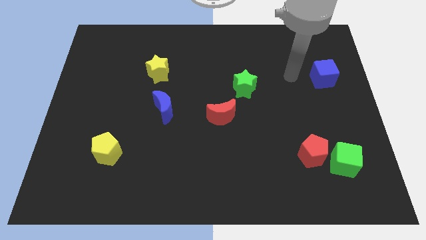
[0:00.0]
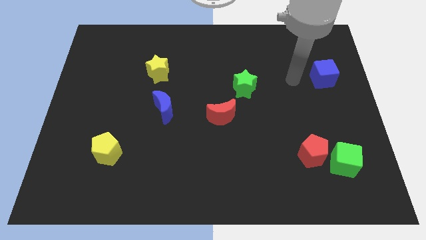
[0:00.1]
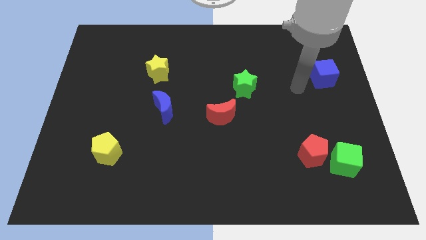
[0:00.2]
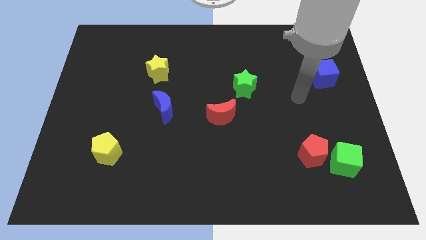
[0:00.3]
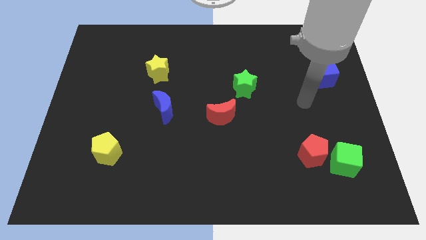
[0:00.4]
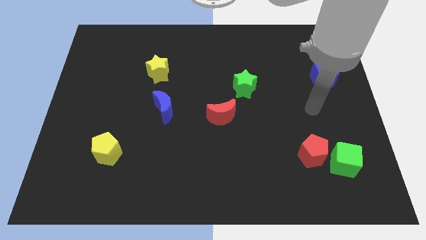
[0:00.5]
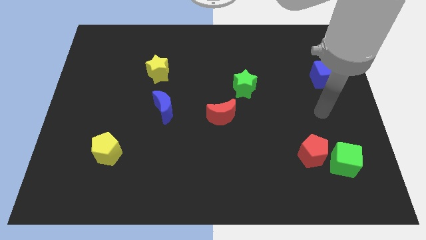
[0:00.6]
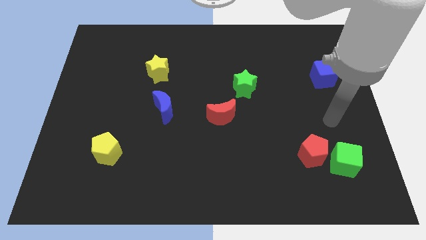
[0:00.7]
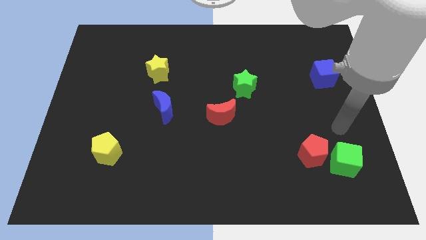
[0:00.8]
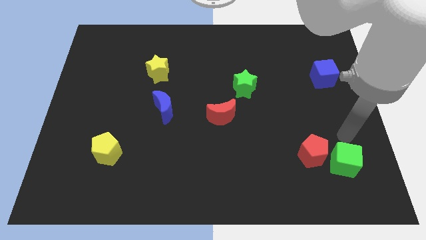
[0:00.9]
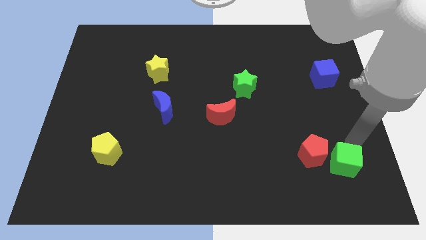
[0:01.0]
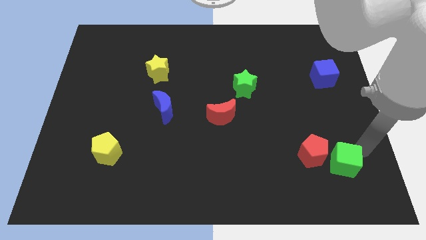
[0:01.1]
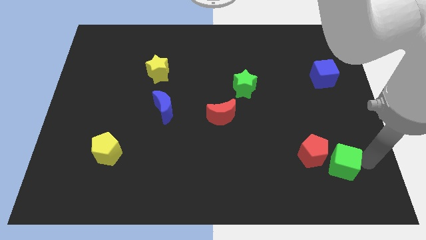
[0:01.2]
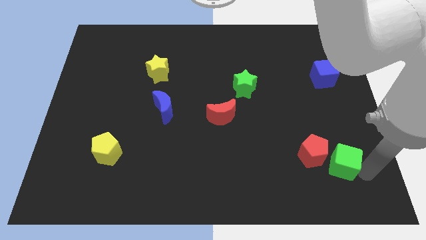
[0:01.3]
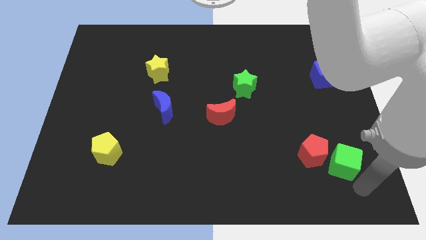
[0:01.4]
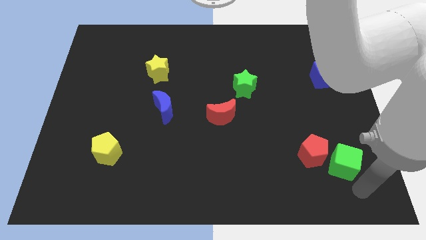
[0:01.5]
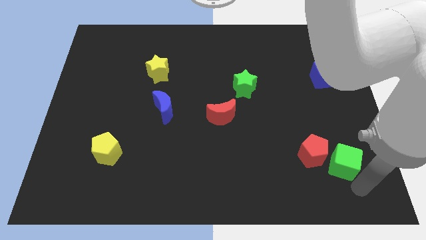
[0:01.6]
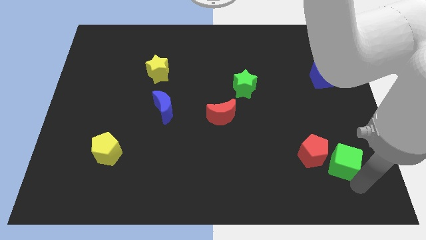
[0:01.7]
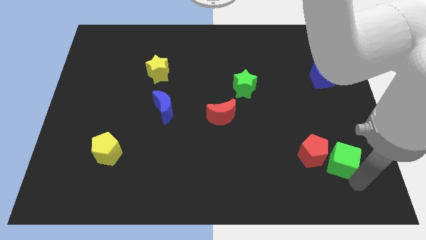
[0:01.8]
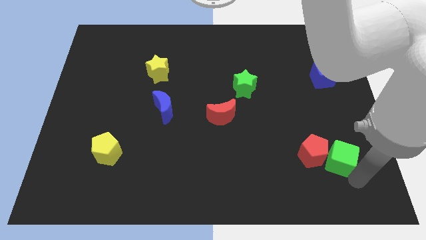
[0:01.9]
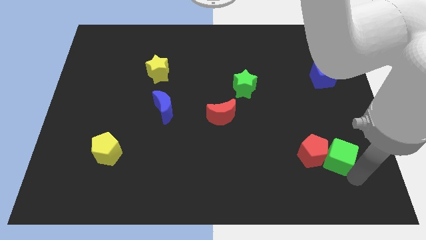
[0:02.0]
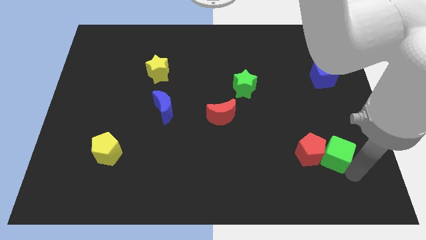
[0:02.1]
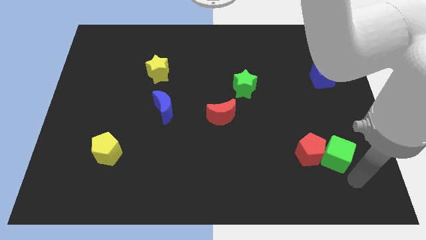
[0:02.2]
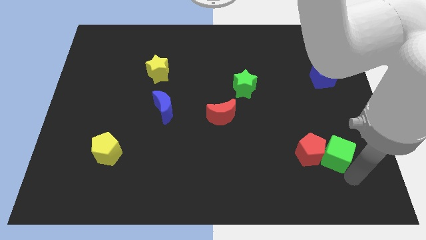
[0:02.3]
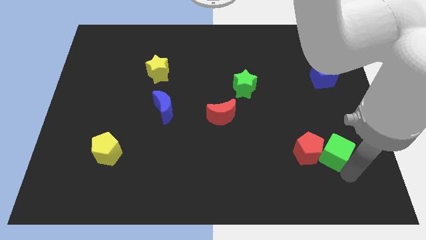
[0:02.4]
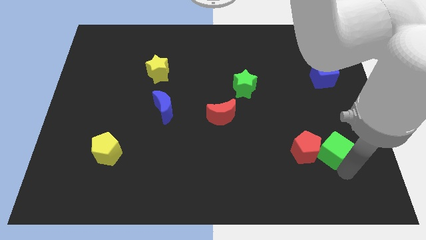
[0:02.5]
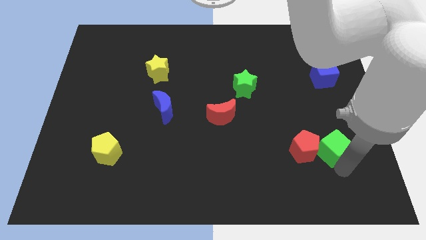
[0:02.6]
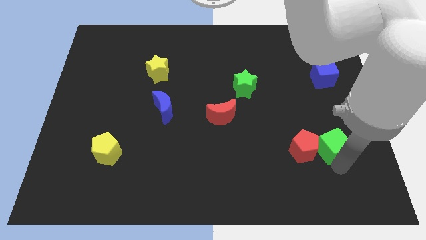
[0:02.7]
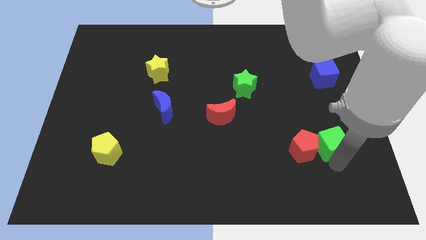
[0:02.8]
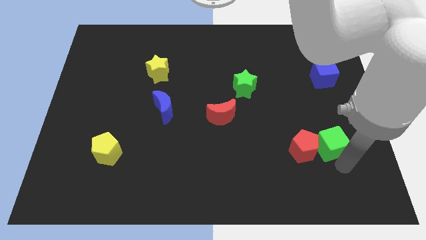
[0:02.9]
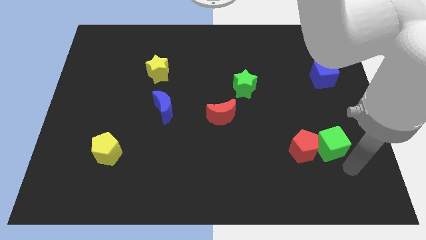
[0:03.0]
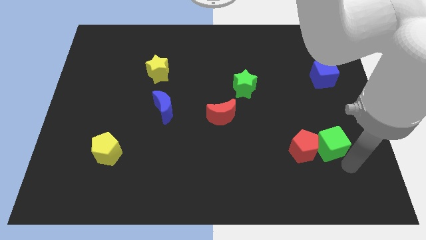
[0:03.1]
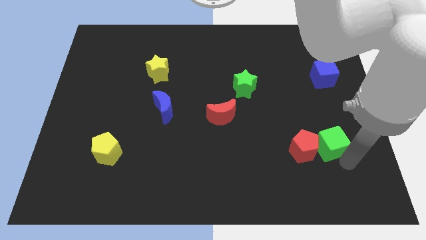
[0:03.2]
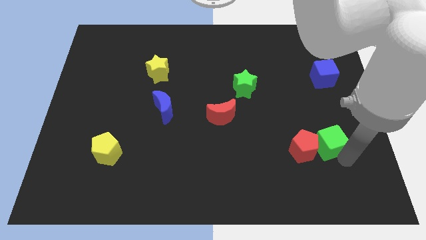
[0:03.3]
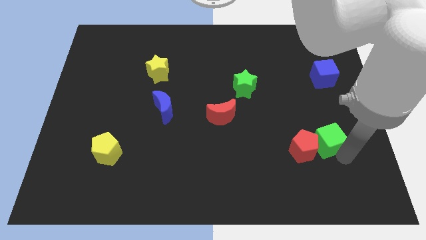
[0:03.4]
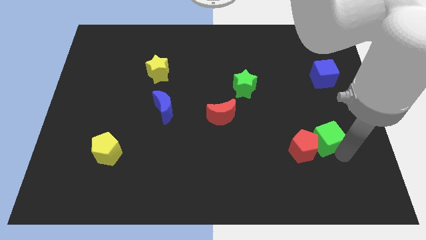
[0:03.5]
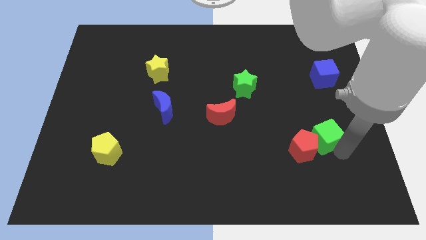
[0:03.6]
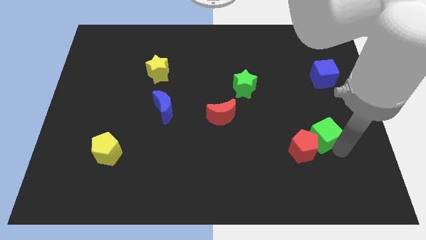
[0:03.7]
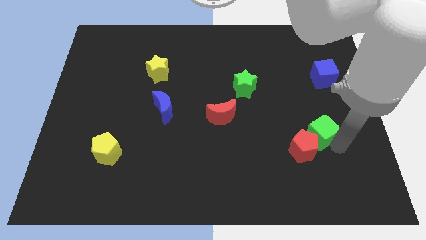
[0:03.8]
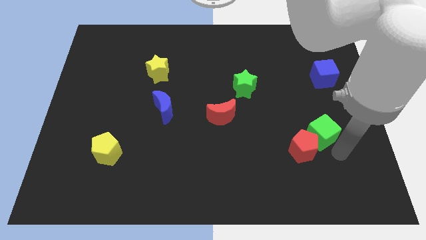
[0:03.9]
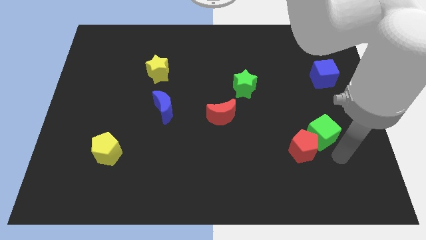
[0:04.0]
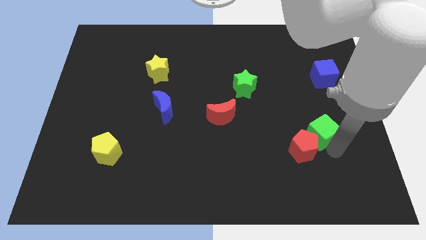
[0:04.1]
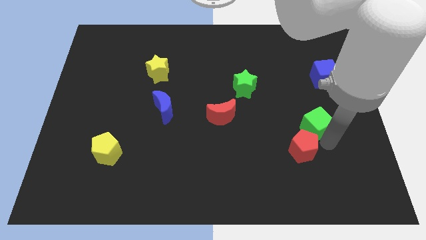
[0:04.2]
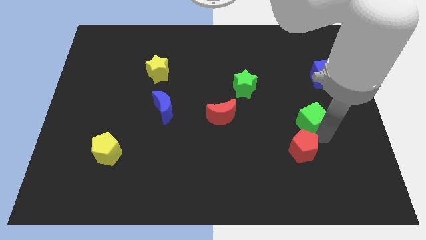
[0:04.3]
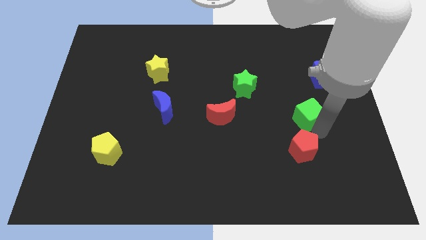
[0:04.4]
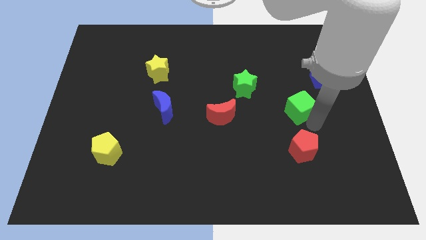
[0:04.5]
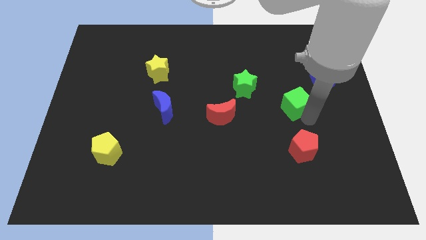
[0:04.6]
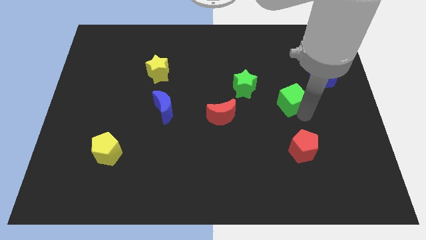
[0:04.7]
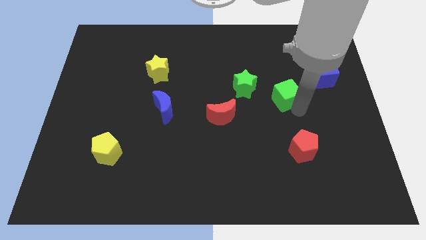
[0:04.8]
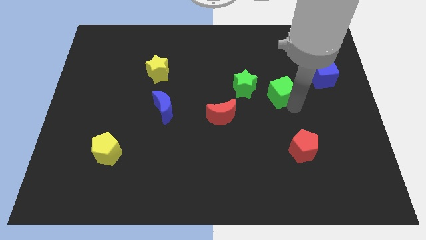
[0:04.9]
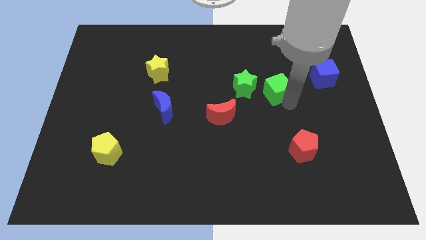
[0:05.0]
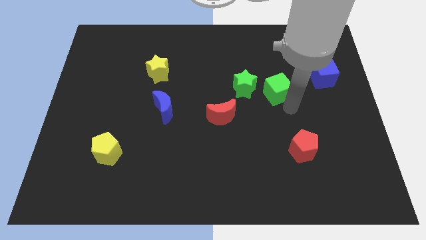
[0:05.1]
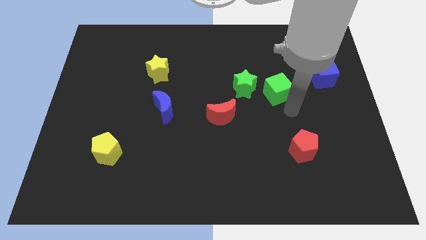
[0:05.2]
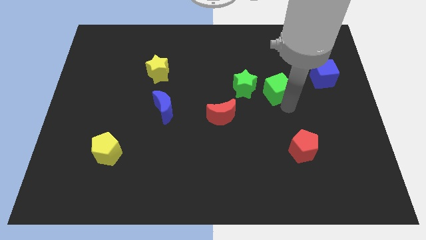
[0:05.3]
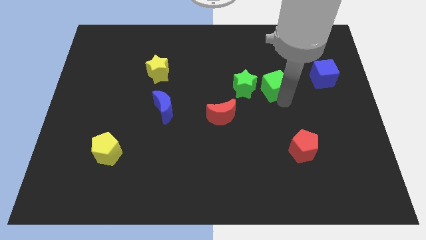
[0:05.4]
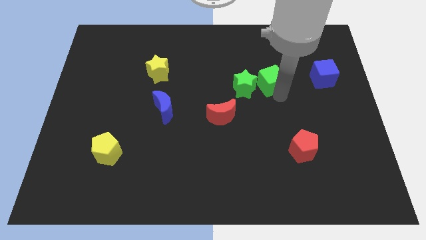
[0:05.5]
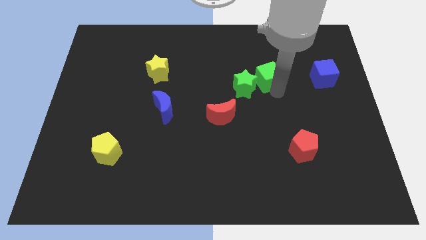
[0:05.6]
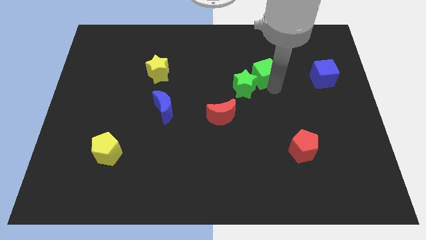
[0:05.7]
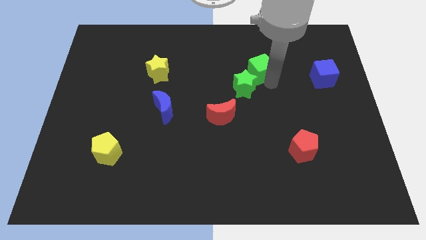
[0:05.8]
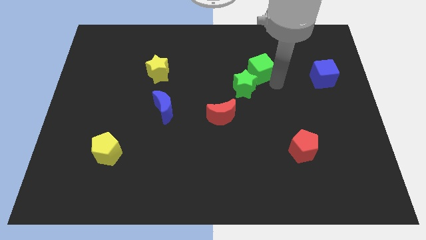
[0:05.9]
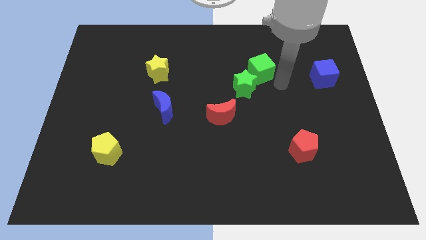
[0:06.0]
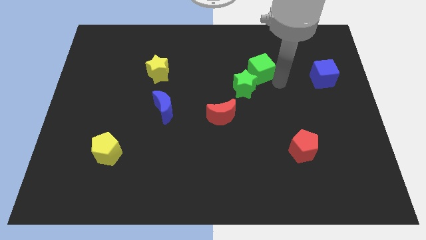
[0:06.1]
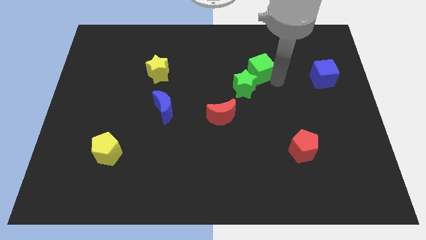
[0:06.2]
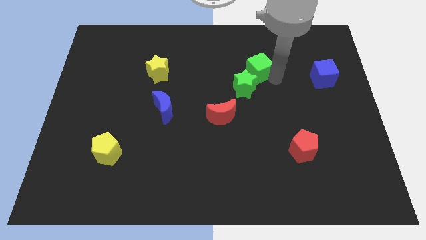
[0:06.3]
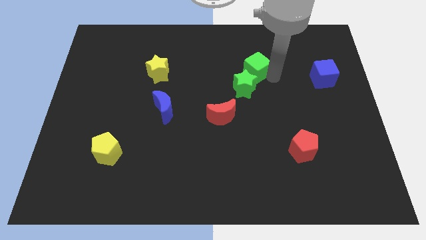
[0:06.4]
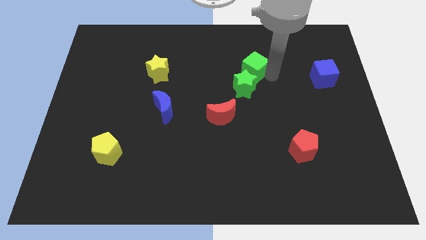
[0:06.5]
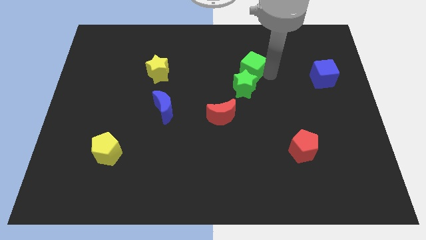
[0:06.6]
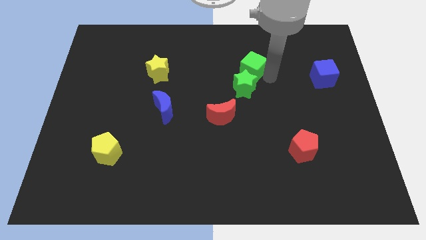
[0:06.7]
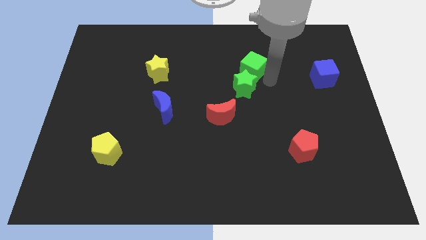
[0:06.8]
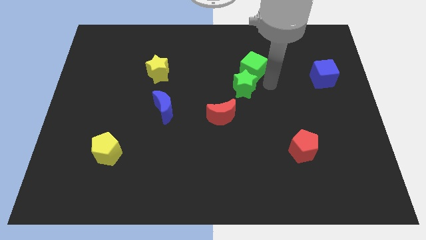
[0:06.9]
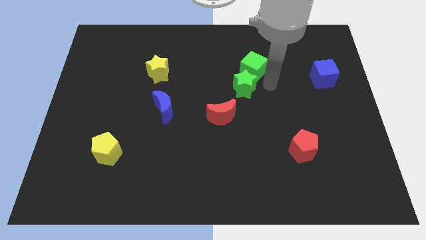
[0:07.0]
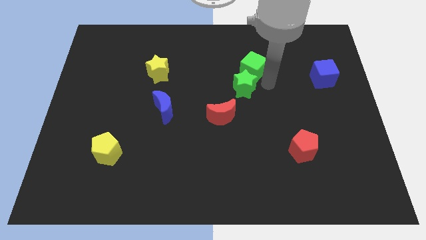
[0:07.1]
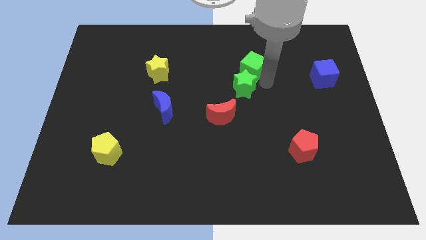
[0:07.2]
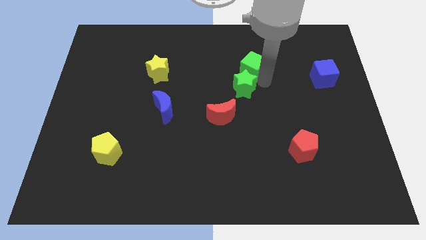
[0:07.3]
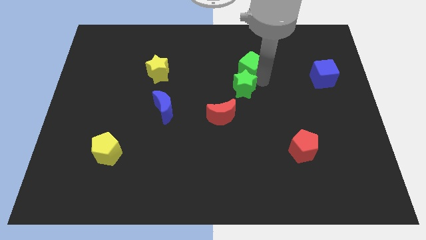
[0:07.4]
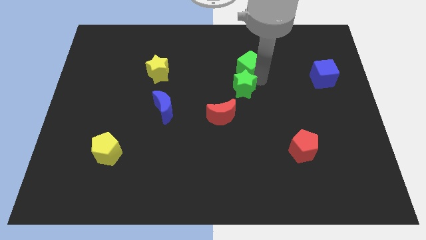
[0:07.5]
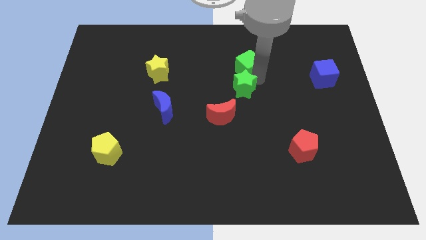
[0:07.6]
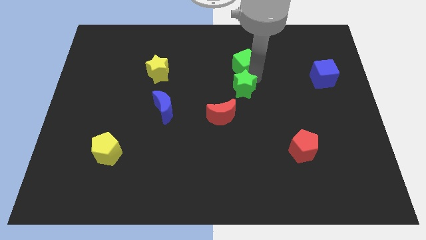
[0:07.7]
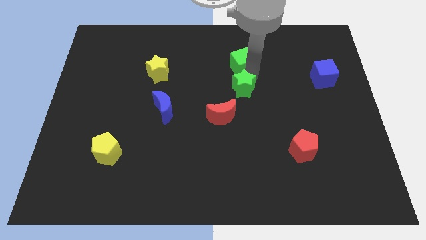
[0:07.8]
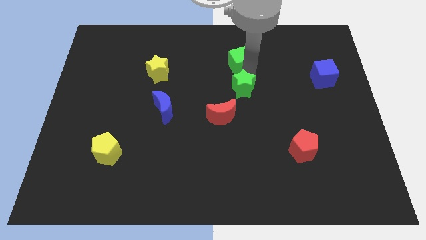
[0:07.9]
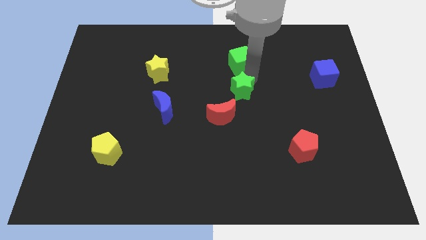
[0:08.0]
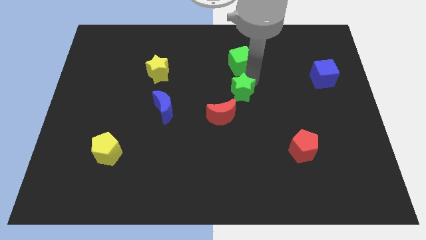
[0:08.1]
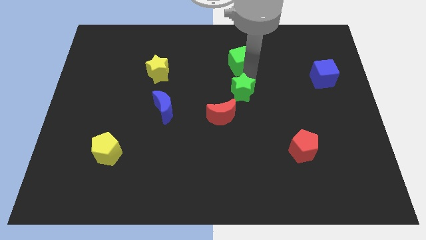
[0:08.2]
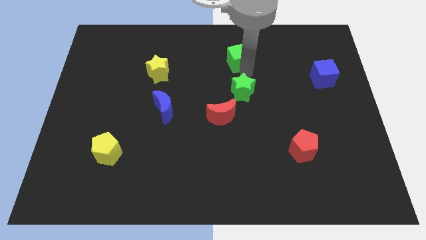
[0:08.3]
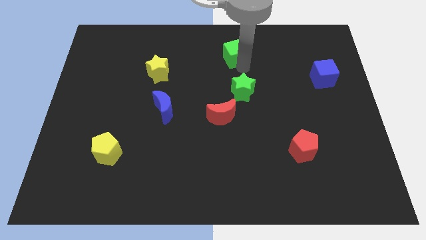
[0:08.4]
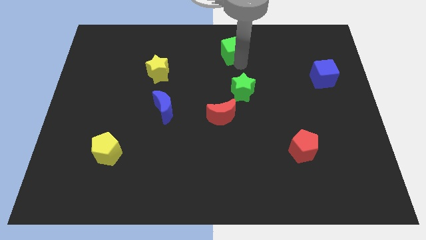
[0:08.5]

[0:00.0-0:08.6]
put the green cube to the top
